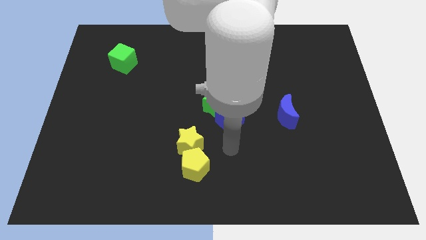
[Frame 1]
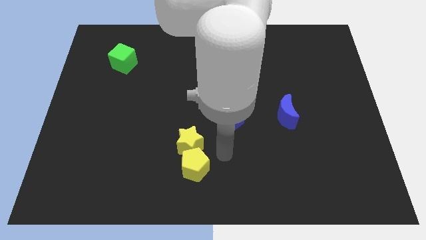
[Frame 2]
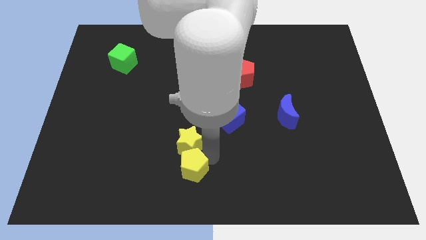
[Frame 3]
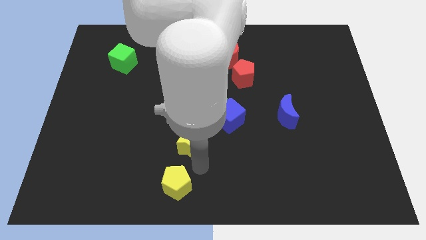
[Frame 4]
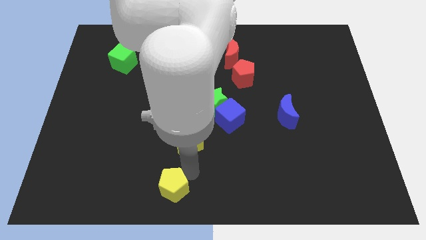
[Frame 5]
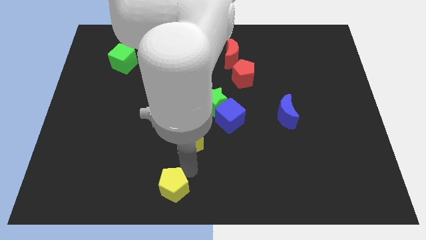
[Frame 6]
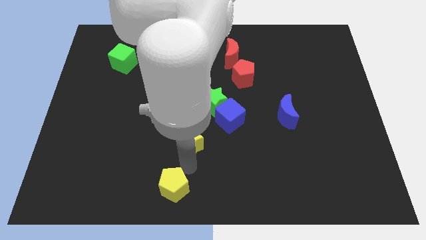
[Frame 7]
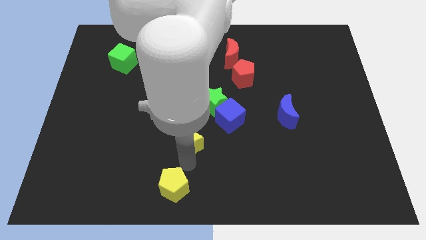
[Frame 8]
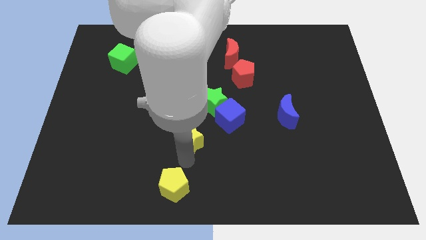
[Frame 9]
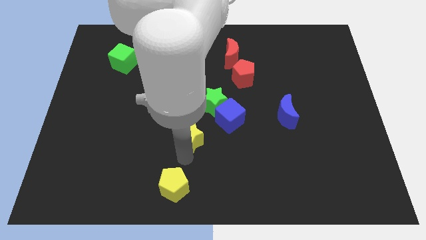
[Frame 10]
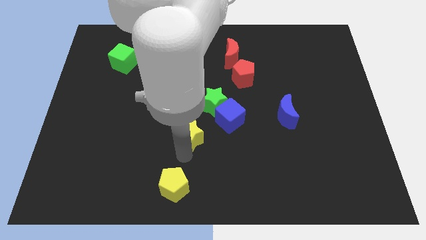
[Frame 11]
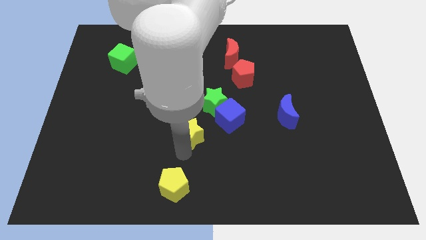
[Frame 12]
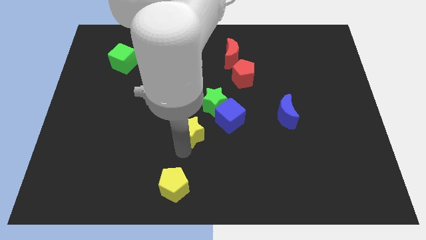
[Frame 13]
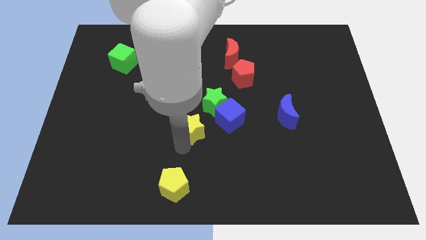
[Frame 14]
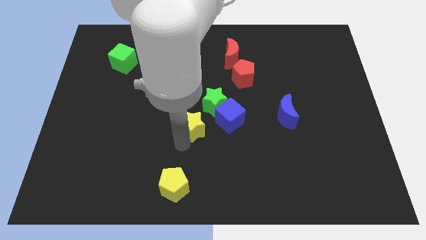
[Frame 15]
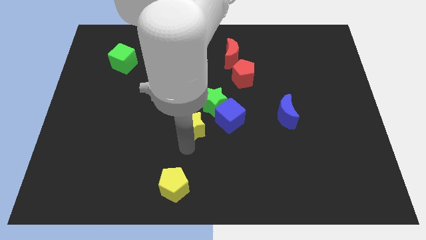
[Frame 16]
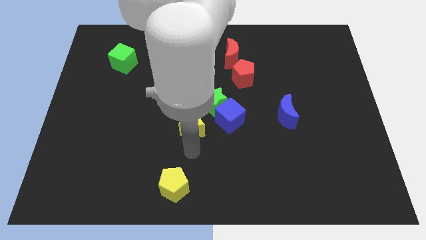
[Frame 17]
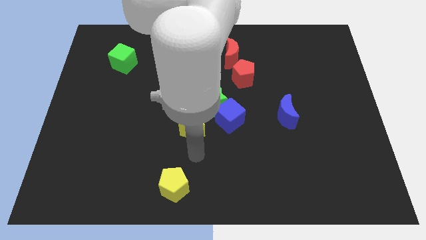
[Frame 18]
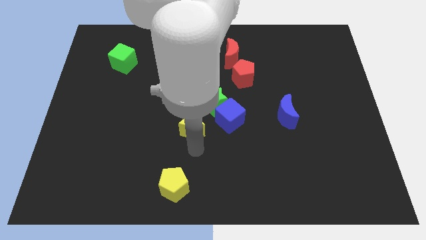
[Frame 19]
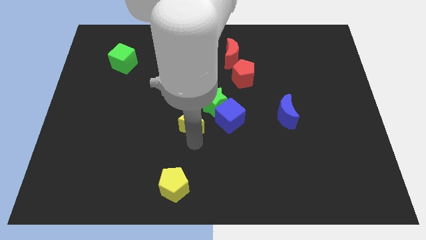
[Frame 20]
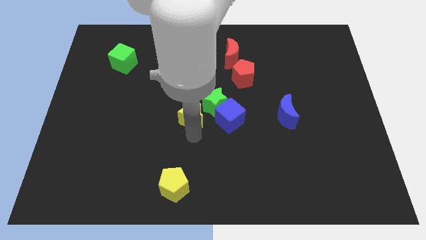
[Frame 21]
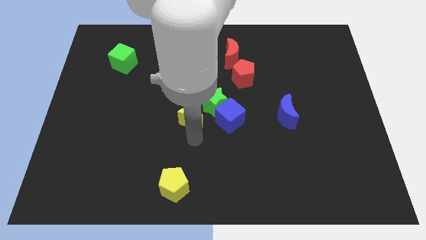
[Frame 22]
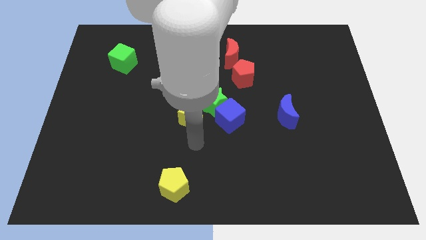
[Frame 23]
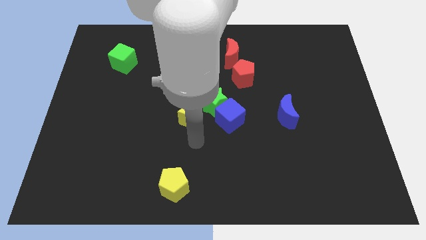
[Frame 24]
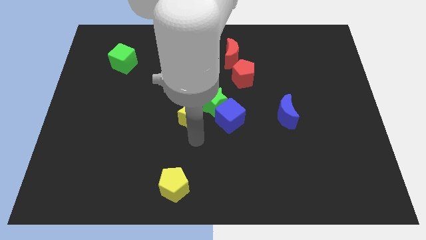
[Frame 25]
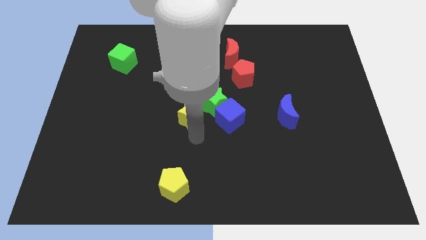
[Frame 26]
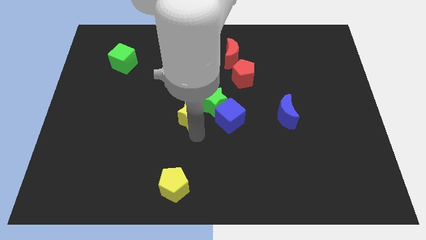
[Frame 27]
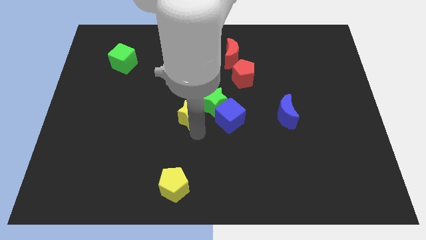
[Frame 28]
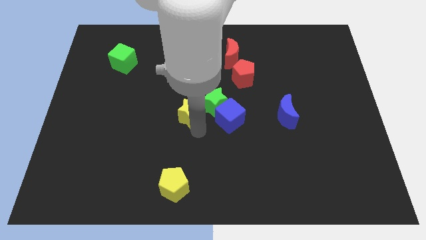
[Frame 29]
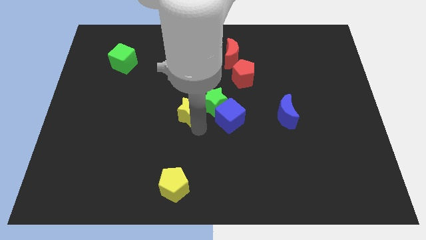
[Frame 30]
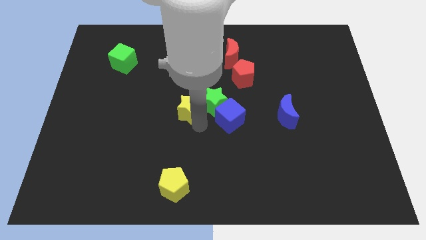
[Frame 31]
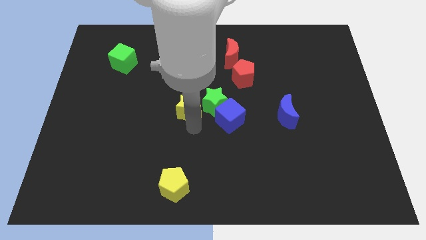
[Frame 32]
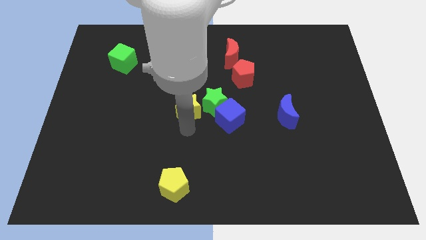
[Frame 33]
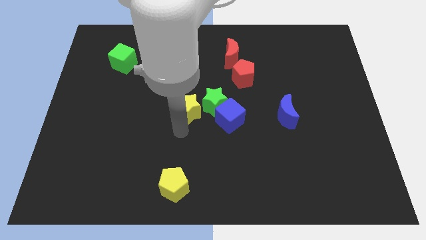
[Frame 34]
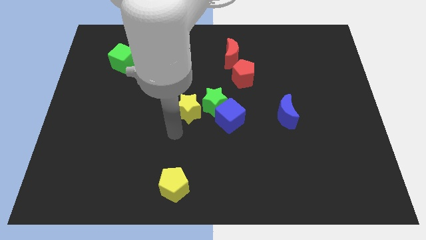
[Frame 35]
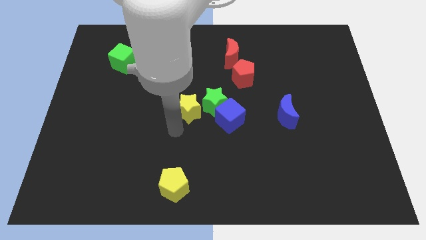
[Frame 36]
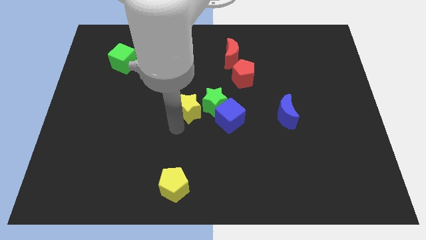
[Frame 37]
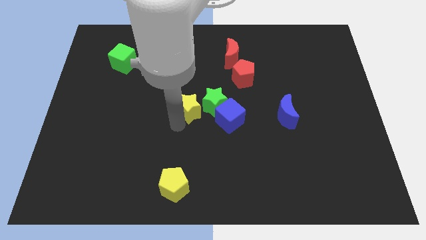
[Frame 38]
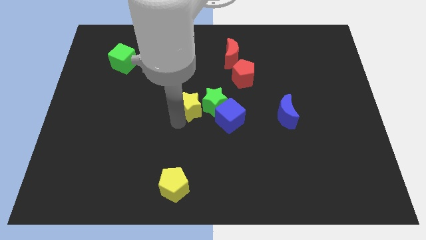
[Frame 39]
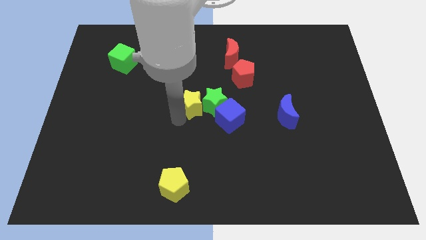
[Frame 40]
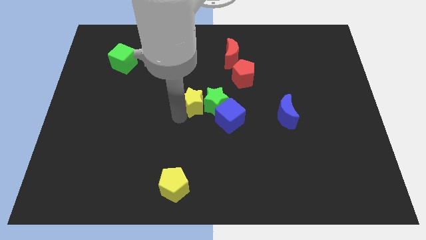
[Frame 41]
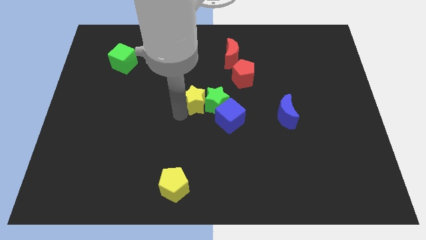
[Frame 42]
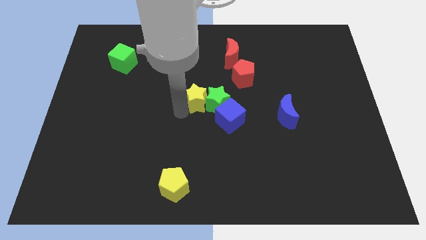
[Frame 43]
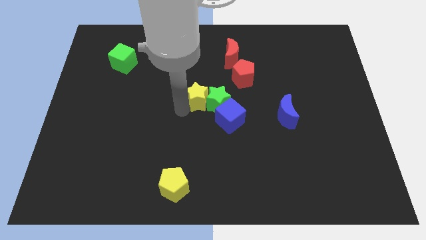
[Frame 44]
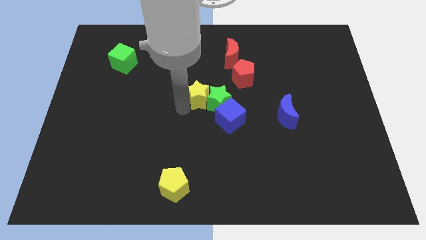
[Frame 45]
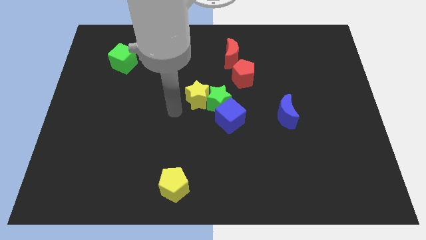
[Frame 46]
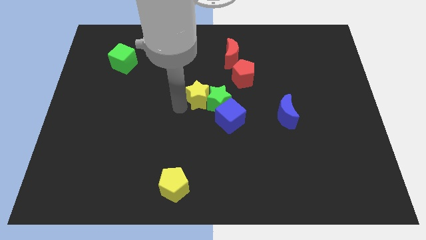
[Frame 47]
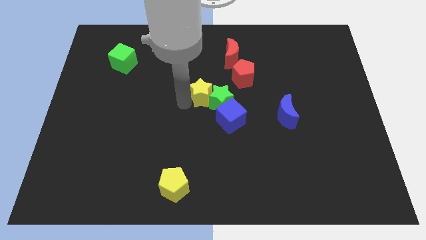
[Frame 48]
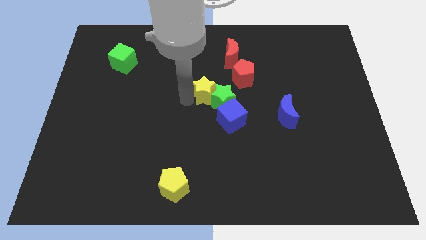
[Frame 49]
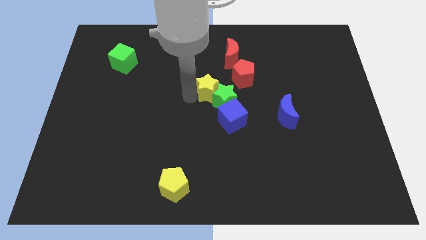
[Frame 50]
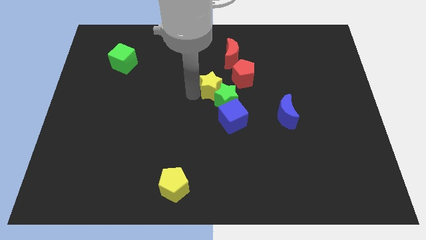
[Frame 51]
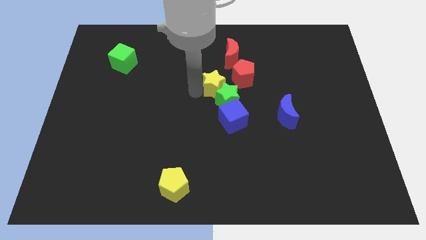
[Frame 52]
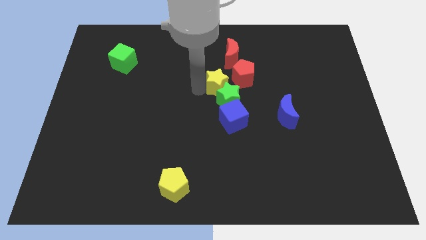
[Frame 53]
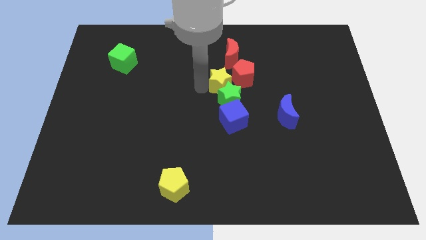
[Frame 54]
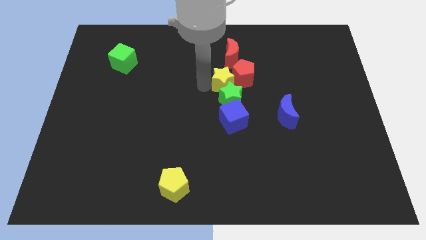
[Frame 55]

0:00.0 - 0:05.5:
push the yellow star close to the red pentagon

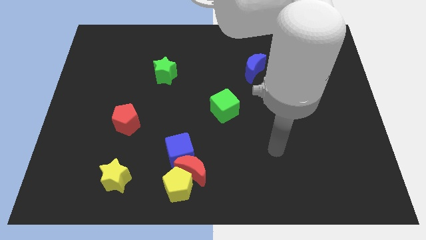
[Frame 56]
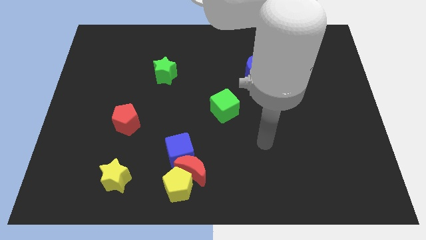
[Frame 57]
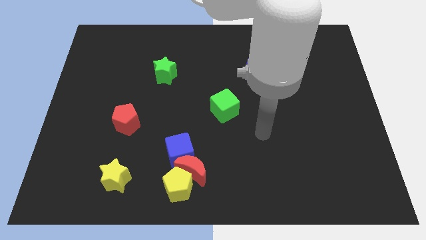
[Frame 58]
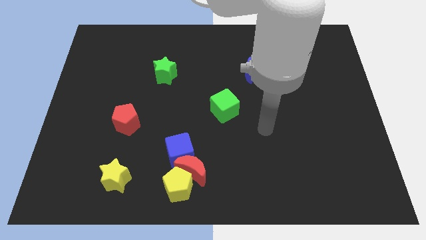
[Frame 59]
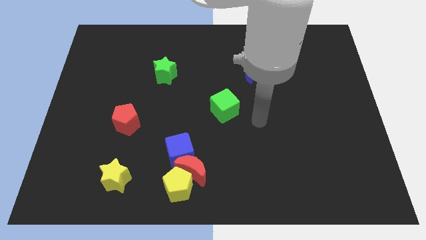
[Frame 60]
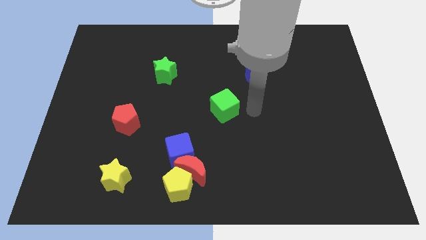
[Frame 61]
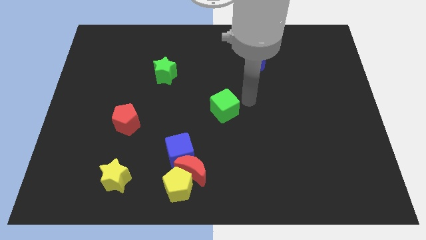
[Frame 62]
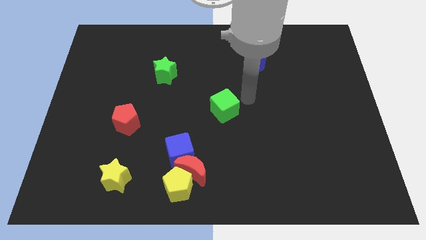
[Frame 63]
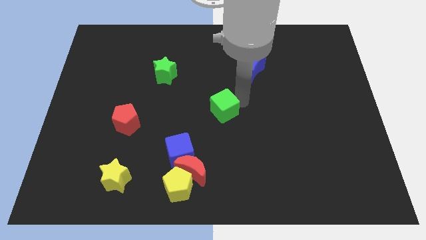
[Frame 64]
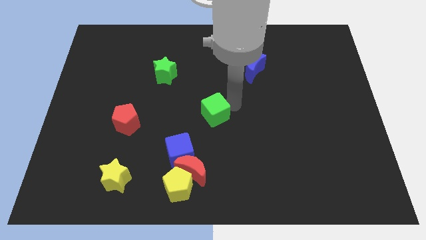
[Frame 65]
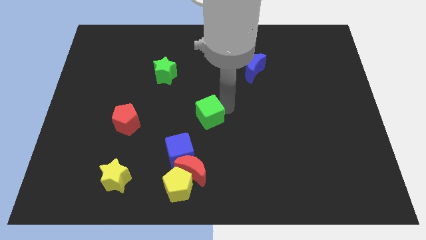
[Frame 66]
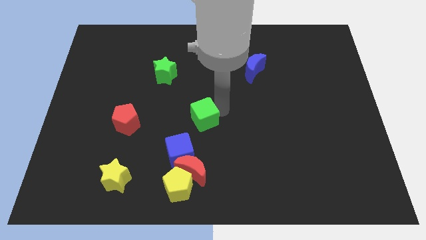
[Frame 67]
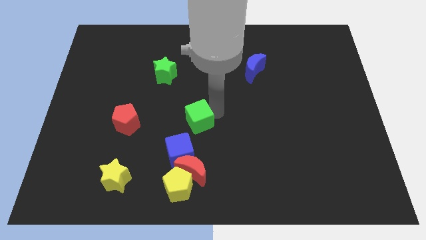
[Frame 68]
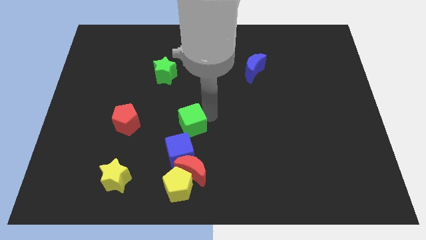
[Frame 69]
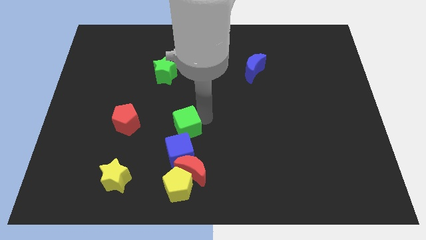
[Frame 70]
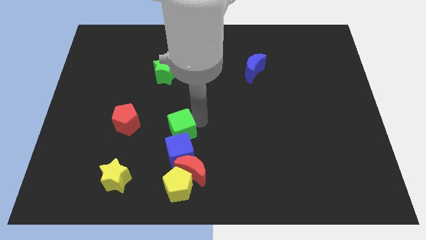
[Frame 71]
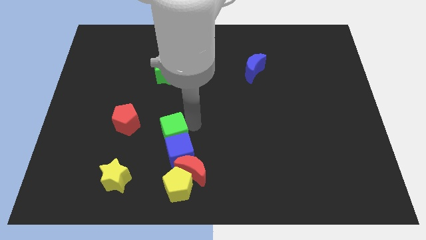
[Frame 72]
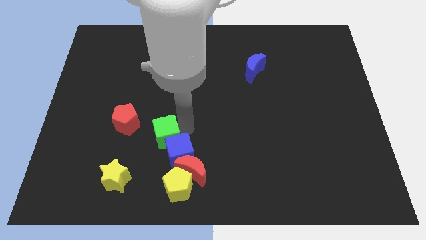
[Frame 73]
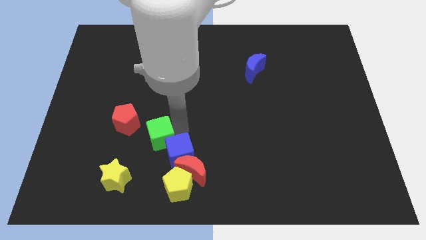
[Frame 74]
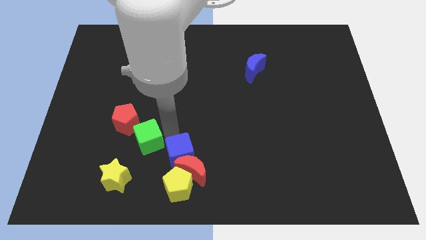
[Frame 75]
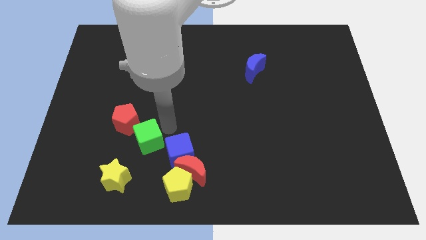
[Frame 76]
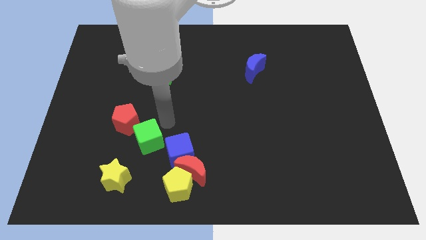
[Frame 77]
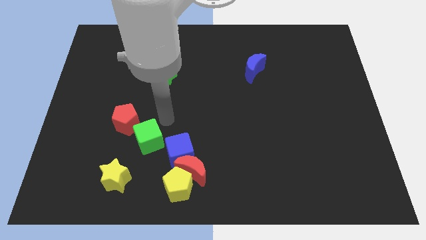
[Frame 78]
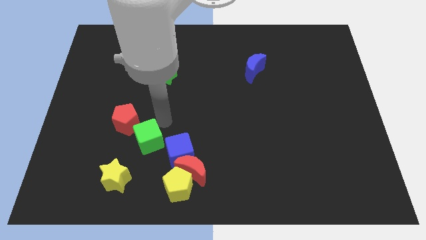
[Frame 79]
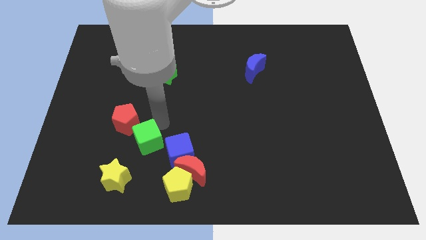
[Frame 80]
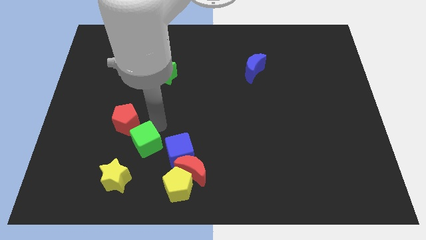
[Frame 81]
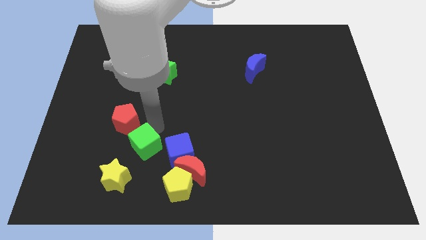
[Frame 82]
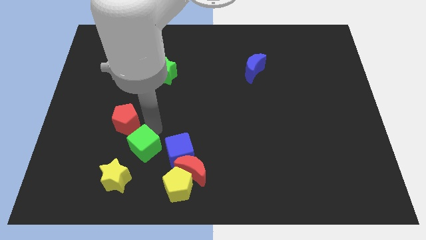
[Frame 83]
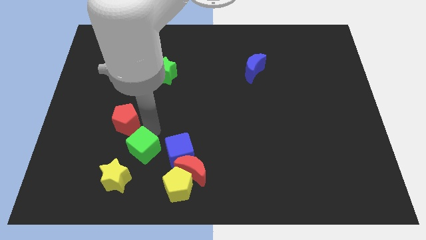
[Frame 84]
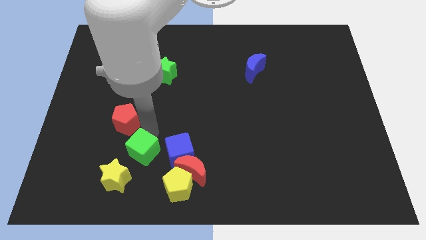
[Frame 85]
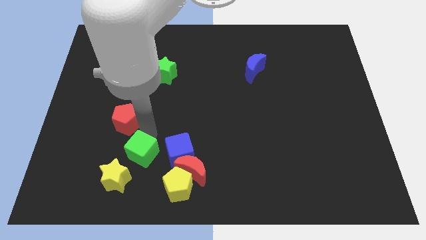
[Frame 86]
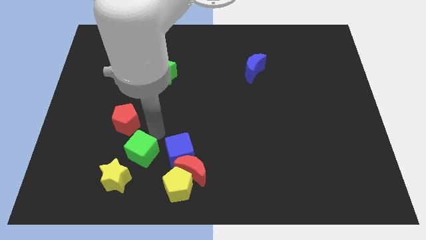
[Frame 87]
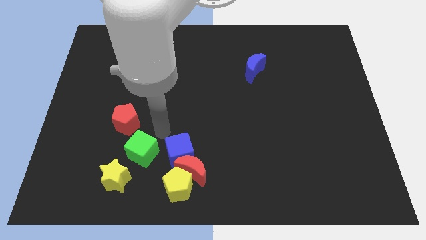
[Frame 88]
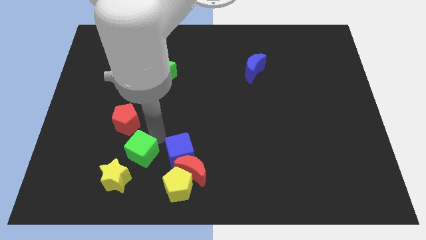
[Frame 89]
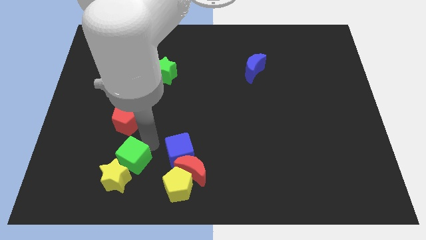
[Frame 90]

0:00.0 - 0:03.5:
slide the green cube next to the yellow star
